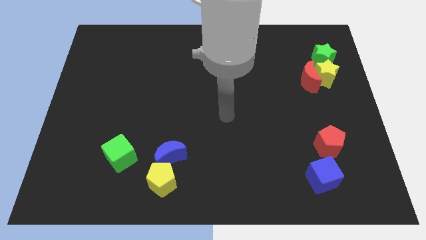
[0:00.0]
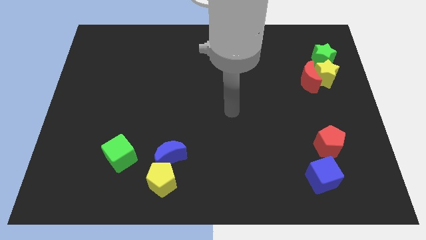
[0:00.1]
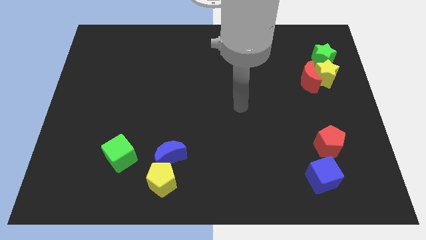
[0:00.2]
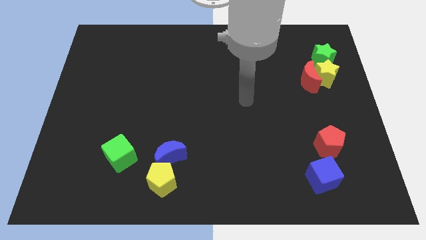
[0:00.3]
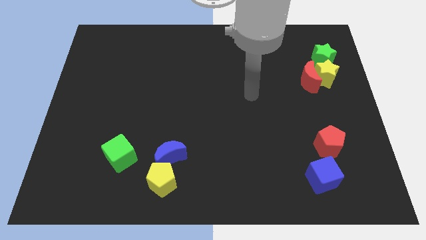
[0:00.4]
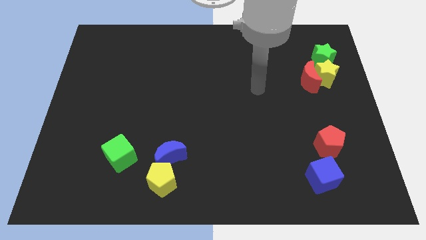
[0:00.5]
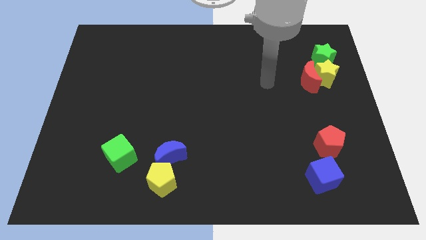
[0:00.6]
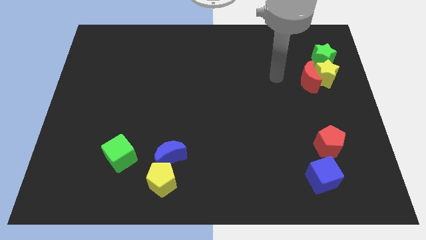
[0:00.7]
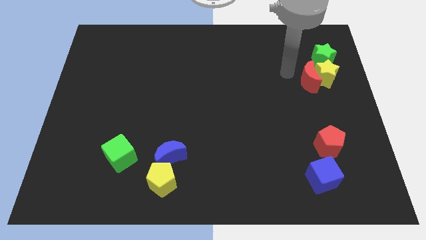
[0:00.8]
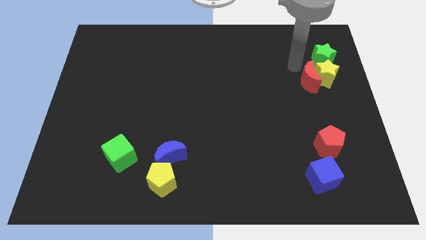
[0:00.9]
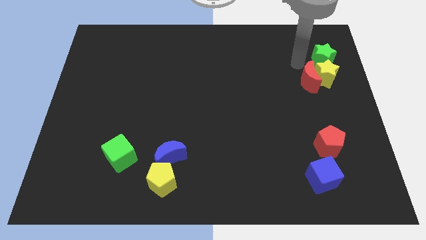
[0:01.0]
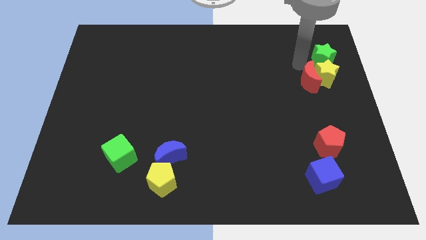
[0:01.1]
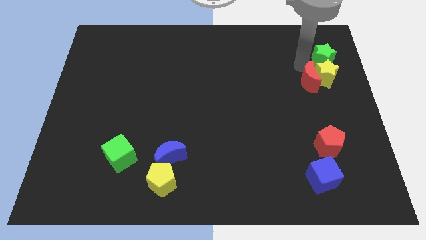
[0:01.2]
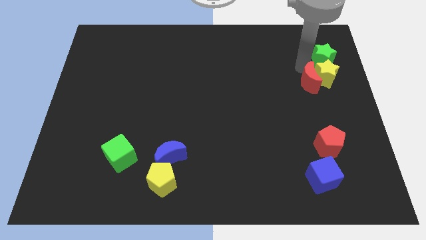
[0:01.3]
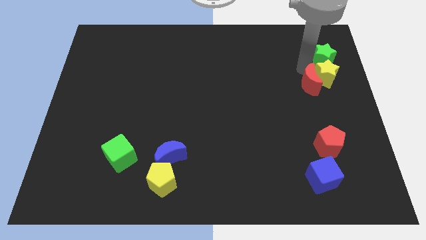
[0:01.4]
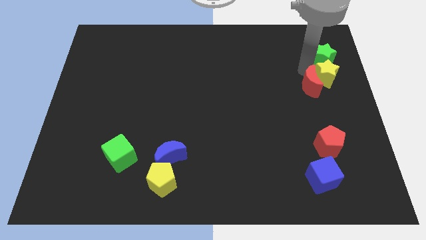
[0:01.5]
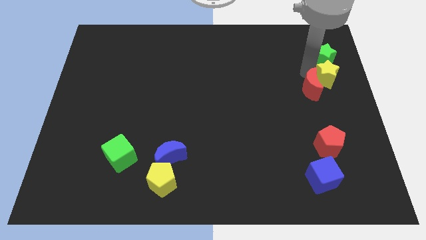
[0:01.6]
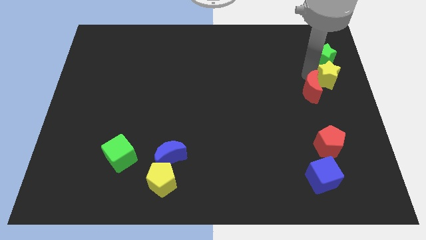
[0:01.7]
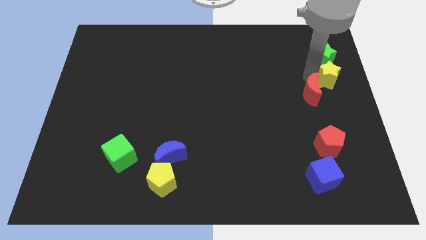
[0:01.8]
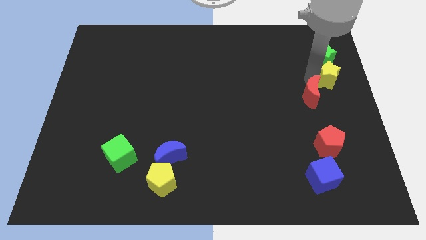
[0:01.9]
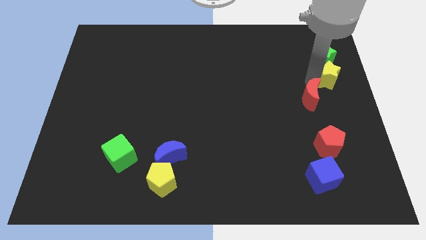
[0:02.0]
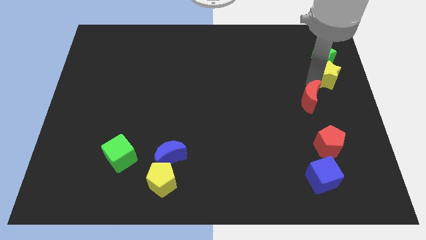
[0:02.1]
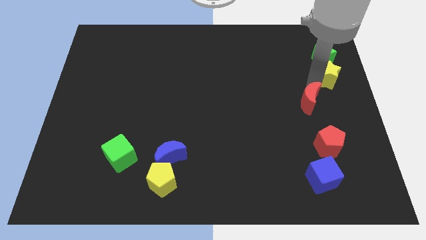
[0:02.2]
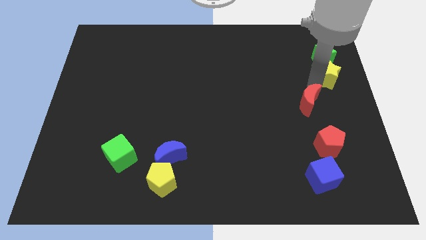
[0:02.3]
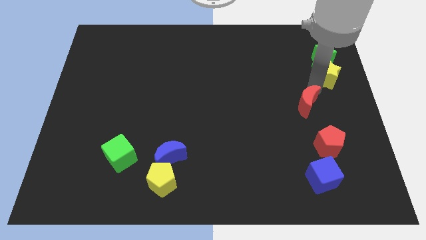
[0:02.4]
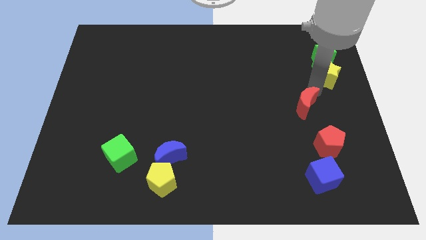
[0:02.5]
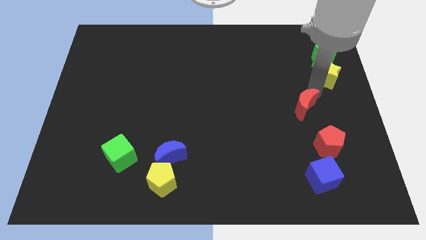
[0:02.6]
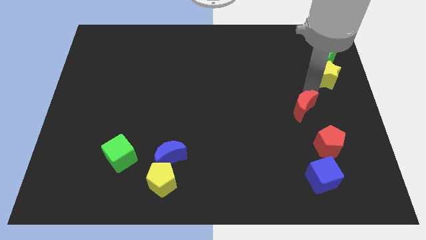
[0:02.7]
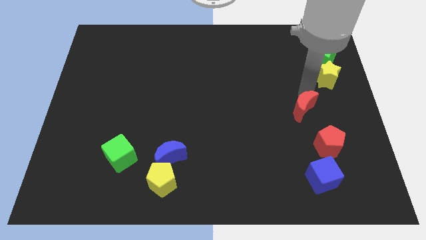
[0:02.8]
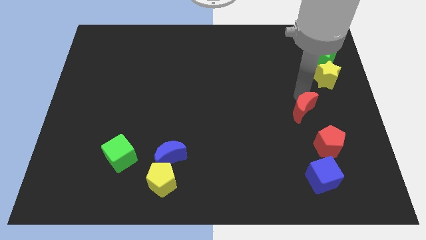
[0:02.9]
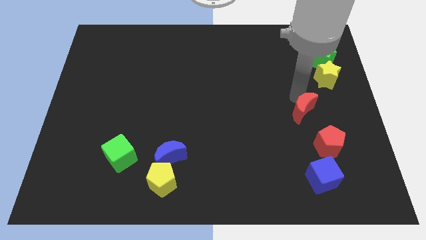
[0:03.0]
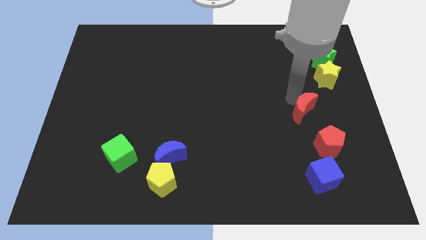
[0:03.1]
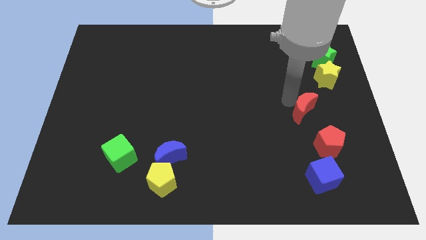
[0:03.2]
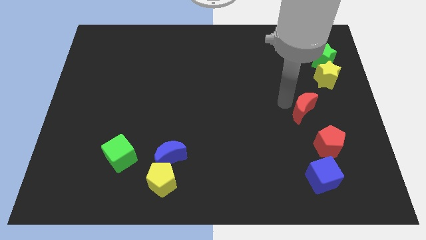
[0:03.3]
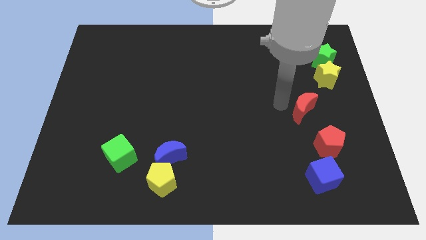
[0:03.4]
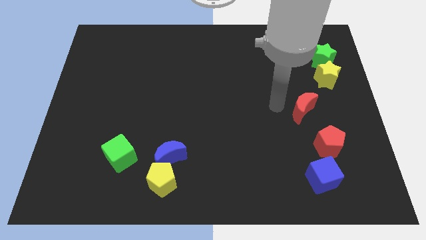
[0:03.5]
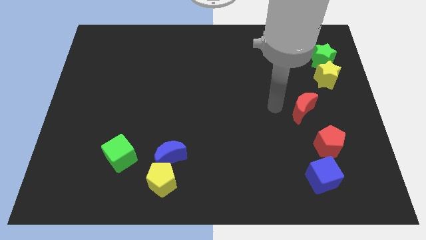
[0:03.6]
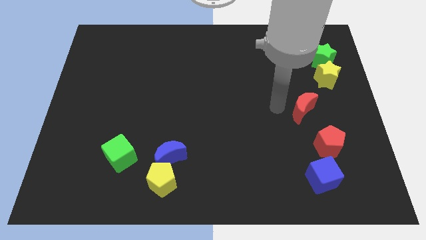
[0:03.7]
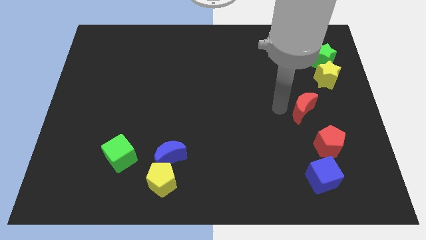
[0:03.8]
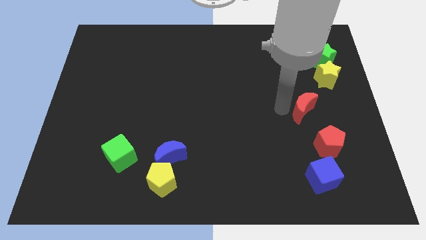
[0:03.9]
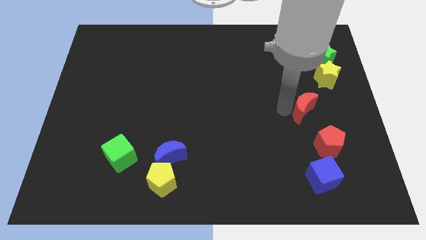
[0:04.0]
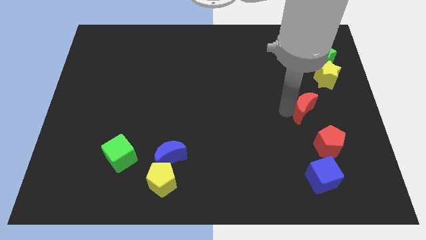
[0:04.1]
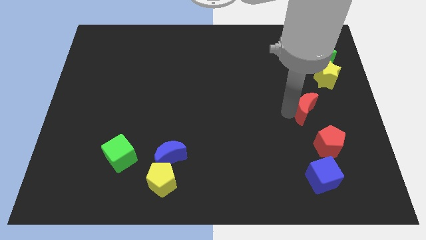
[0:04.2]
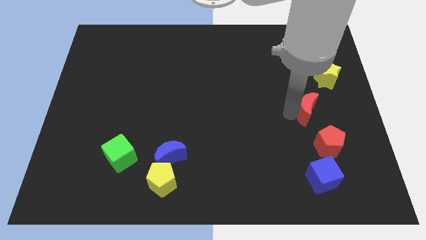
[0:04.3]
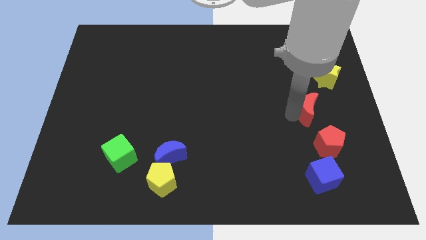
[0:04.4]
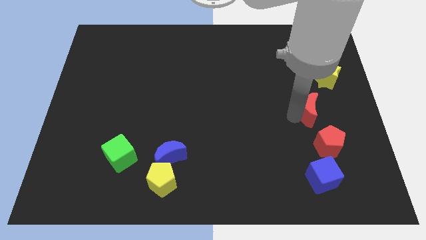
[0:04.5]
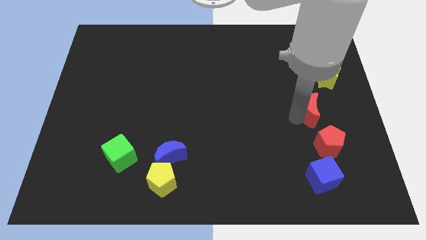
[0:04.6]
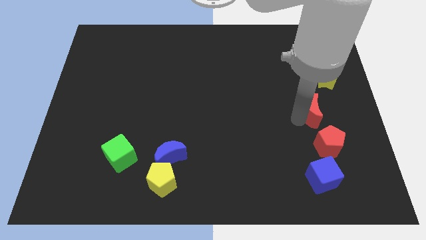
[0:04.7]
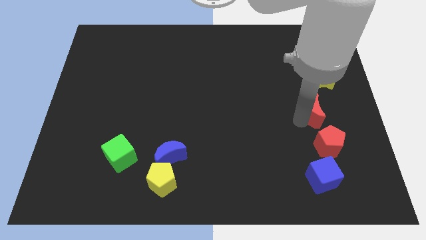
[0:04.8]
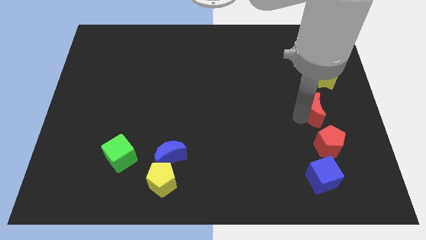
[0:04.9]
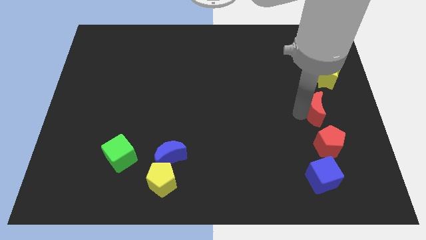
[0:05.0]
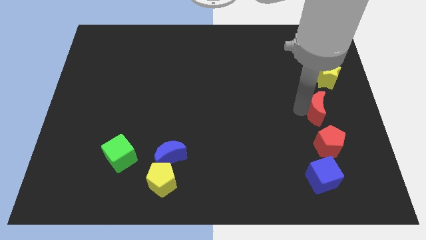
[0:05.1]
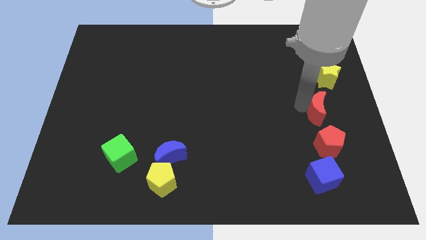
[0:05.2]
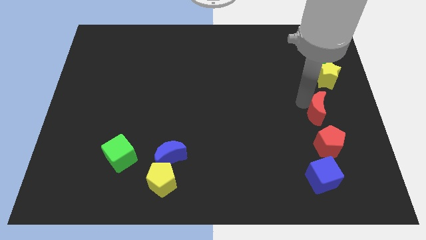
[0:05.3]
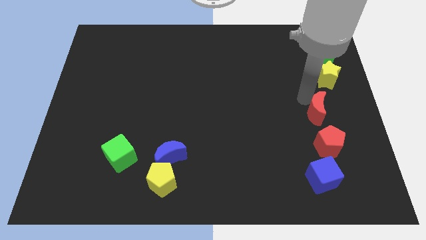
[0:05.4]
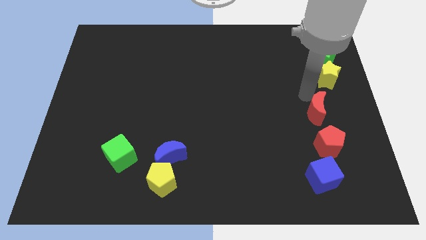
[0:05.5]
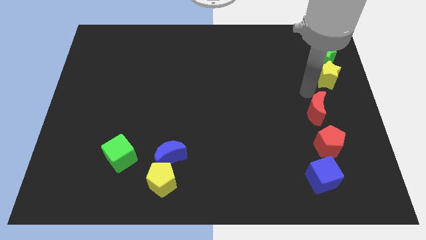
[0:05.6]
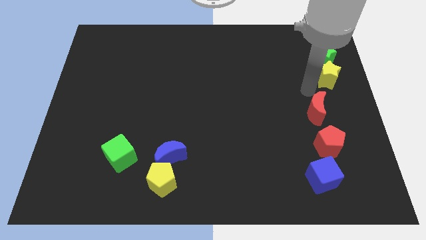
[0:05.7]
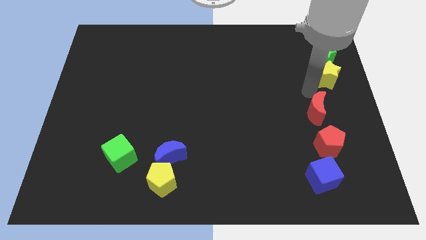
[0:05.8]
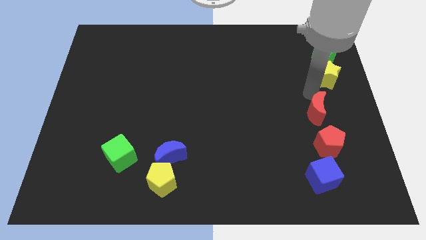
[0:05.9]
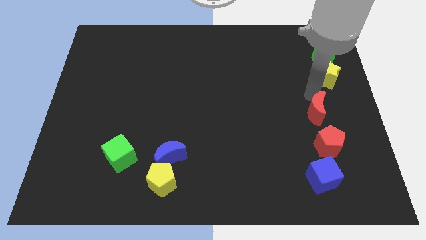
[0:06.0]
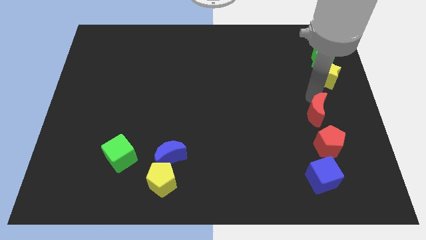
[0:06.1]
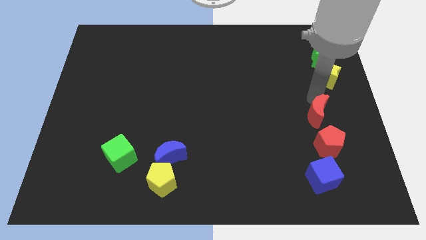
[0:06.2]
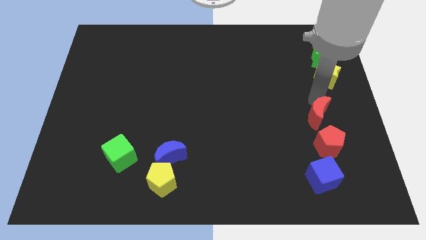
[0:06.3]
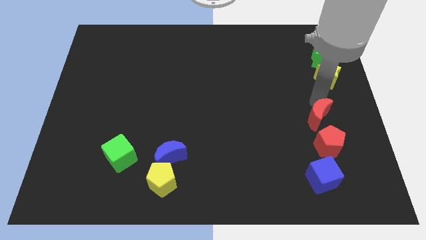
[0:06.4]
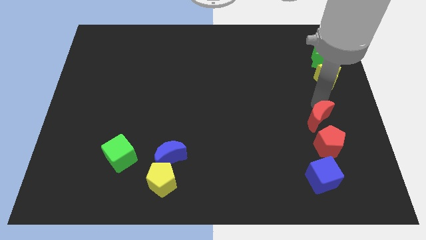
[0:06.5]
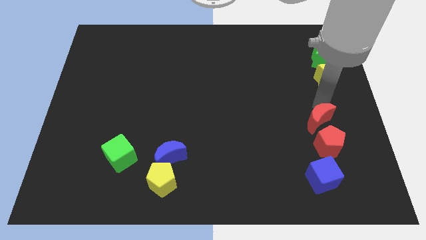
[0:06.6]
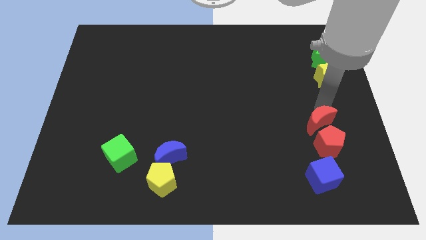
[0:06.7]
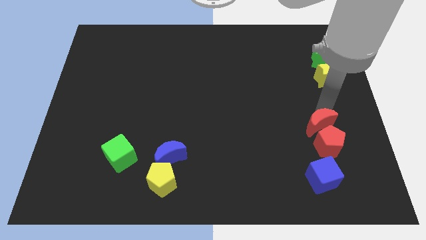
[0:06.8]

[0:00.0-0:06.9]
move the red moon to the red pentagon

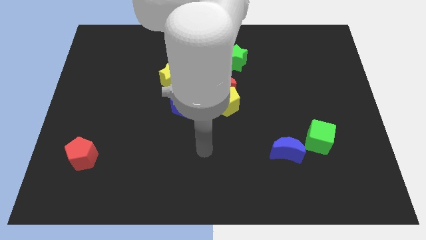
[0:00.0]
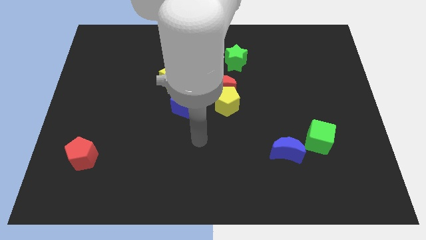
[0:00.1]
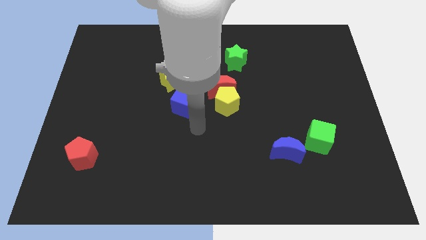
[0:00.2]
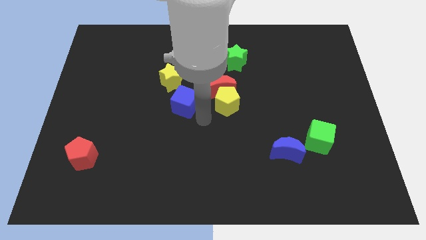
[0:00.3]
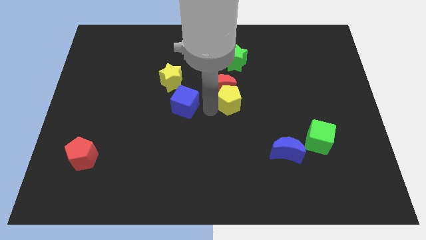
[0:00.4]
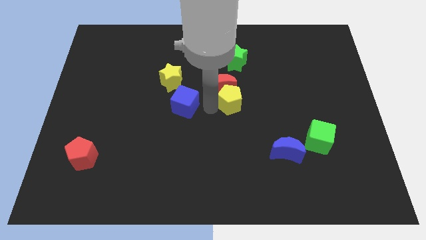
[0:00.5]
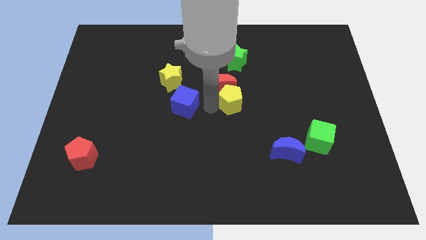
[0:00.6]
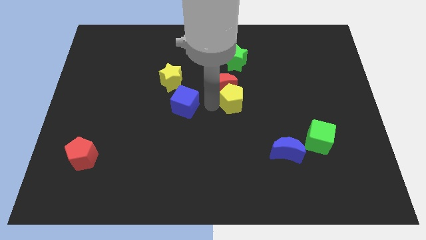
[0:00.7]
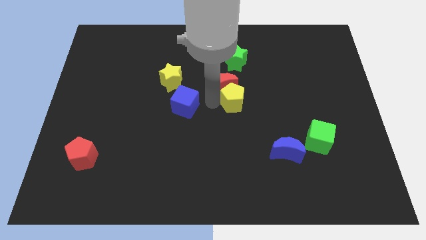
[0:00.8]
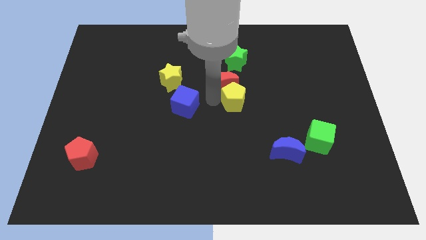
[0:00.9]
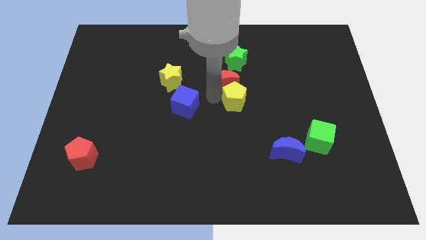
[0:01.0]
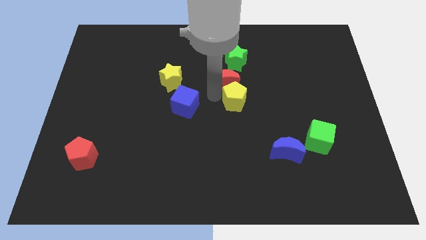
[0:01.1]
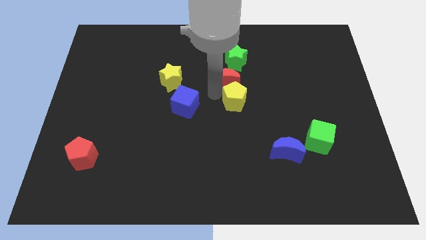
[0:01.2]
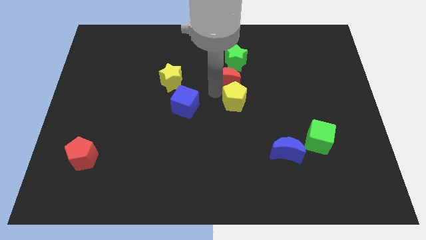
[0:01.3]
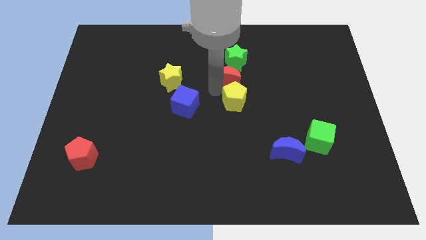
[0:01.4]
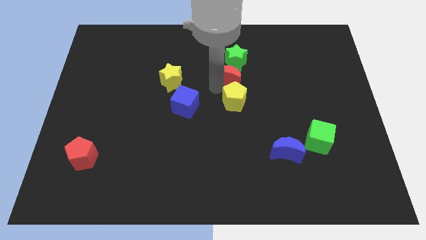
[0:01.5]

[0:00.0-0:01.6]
slide the red moon close to the green star
